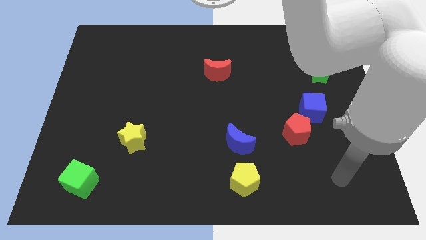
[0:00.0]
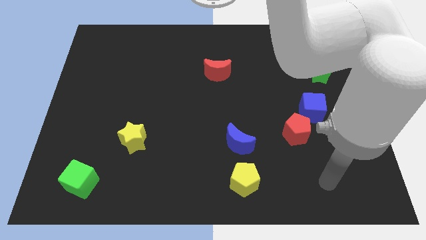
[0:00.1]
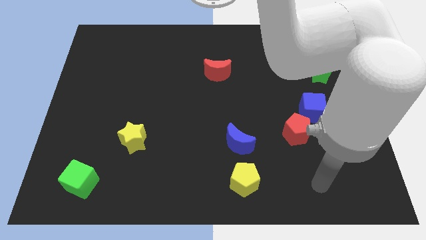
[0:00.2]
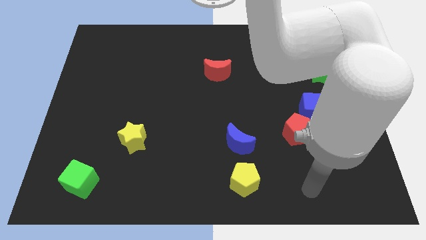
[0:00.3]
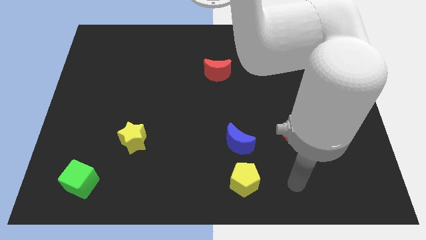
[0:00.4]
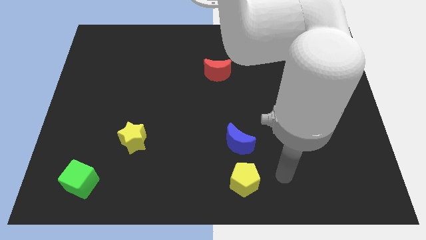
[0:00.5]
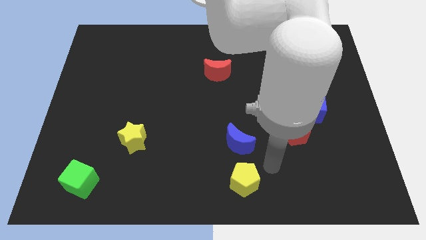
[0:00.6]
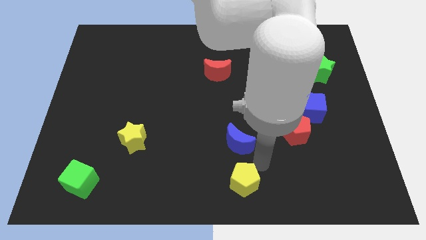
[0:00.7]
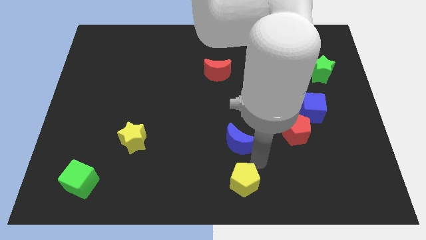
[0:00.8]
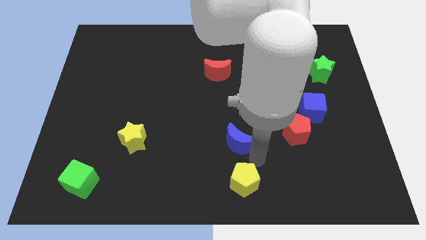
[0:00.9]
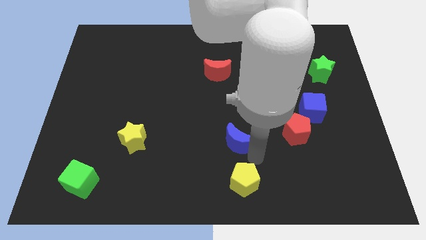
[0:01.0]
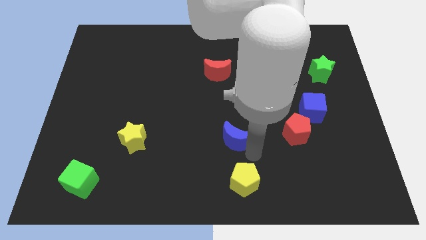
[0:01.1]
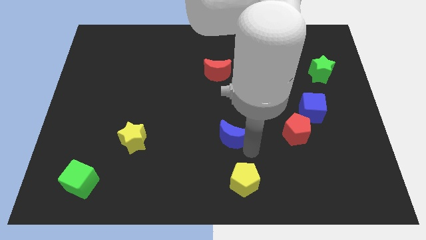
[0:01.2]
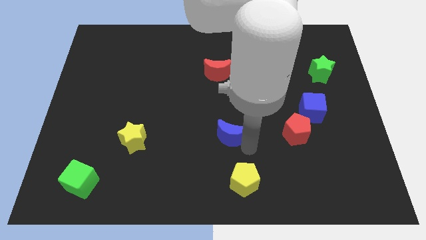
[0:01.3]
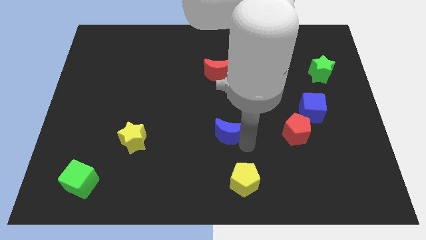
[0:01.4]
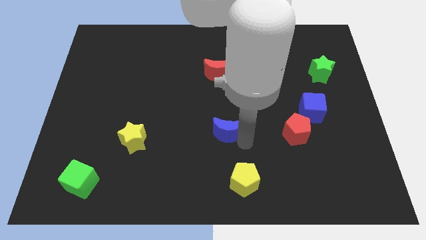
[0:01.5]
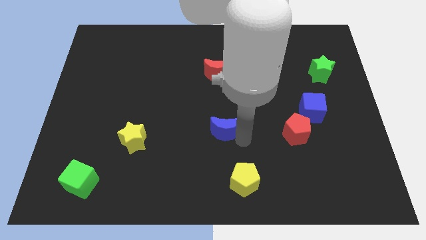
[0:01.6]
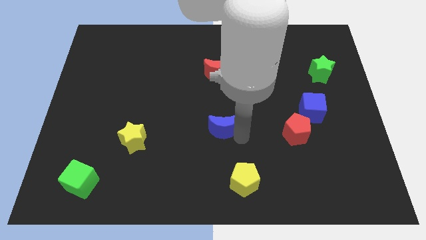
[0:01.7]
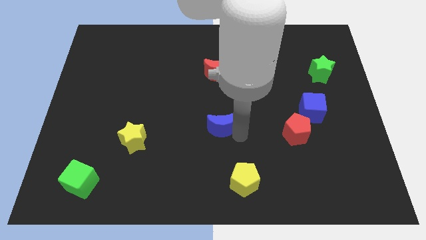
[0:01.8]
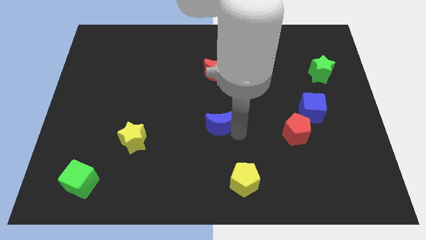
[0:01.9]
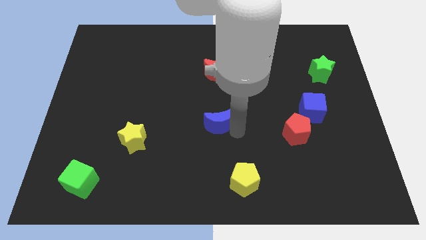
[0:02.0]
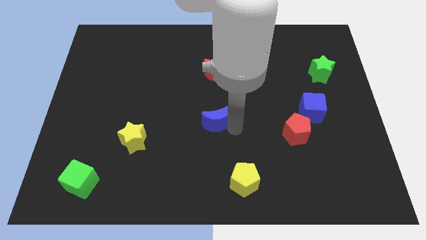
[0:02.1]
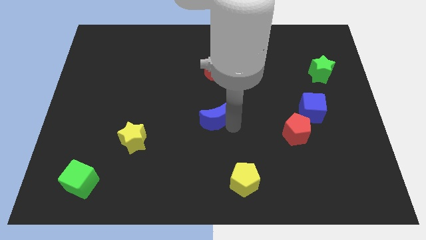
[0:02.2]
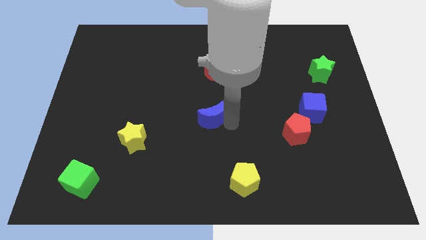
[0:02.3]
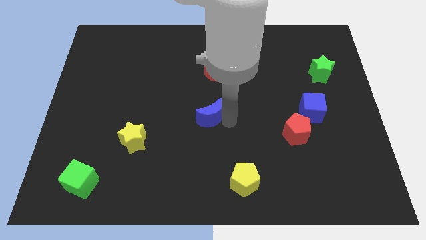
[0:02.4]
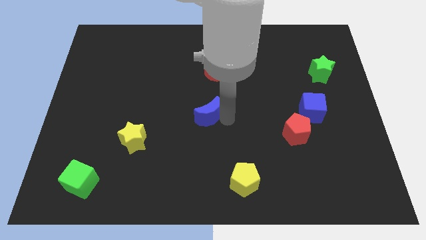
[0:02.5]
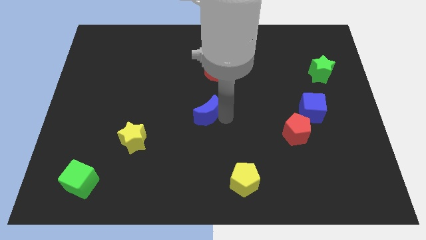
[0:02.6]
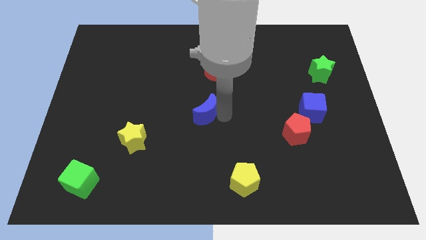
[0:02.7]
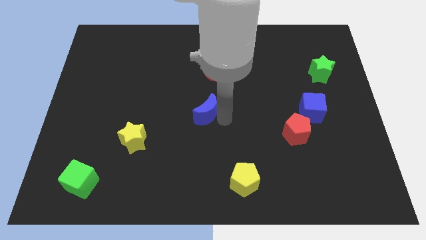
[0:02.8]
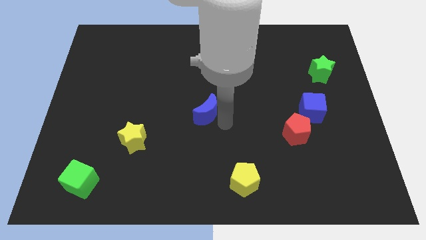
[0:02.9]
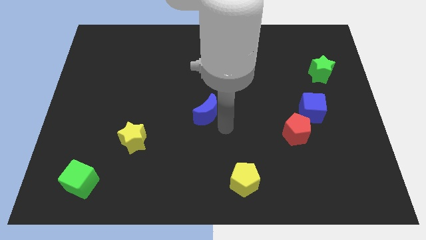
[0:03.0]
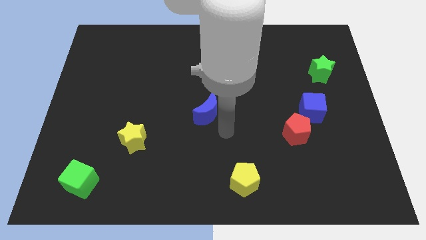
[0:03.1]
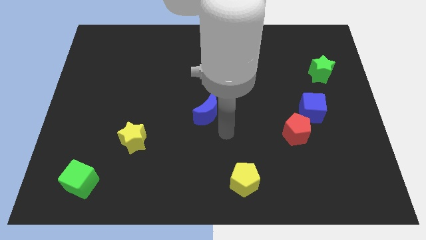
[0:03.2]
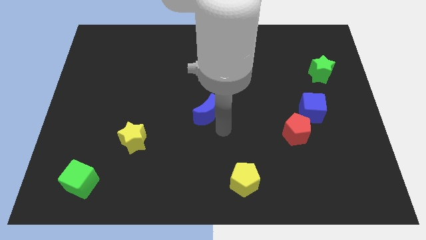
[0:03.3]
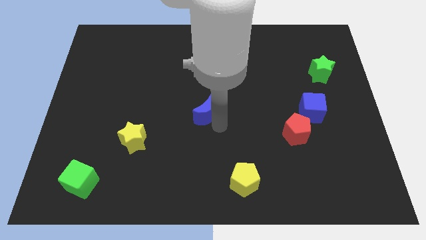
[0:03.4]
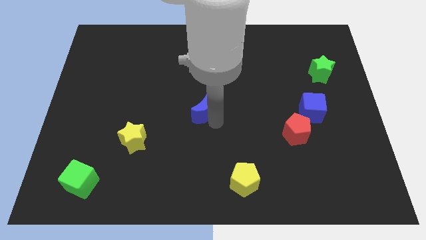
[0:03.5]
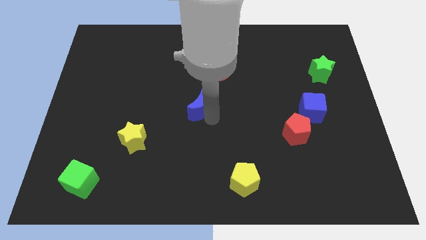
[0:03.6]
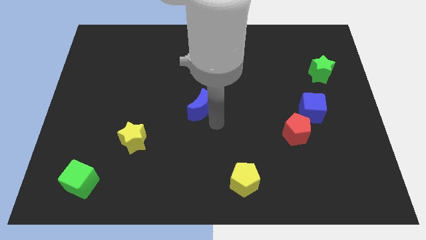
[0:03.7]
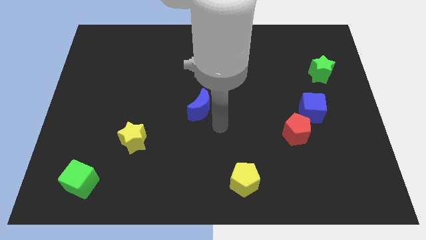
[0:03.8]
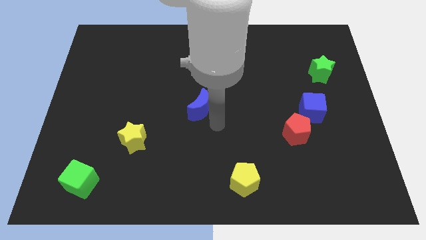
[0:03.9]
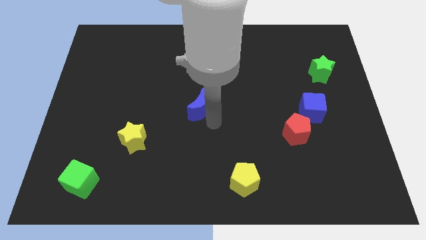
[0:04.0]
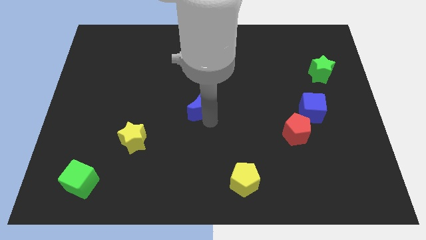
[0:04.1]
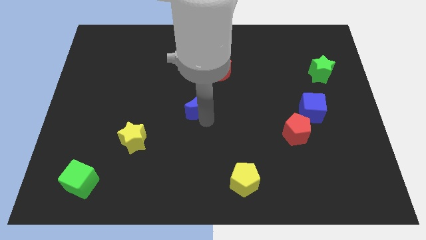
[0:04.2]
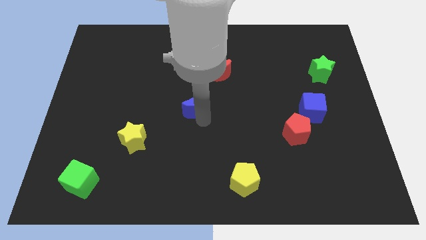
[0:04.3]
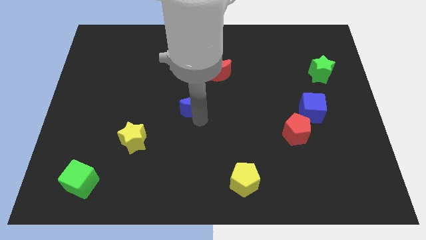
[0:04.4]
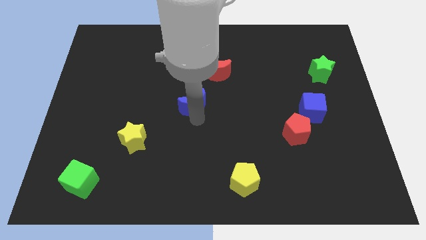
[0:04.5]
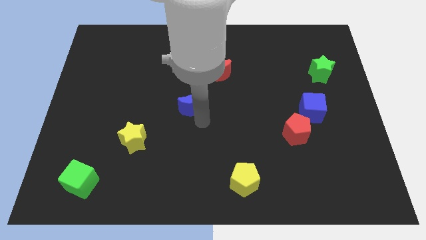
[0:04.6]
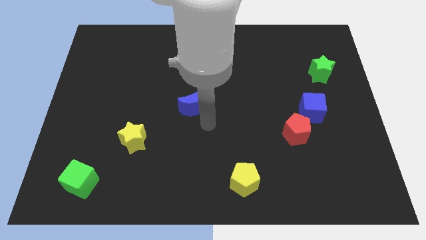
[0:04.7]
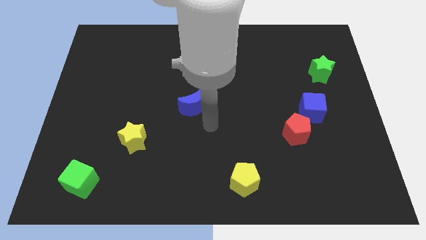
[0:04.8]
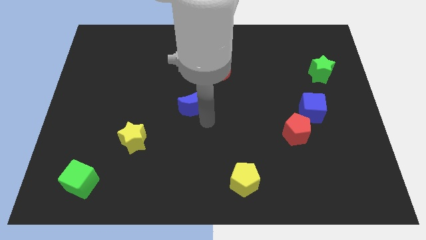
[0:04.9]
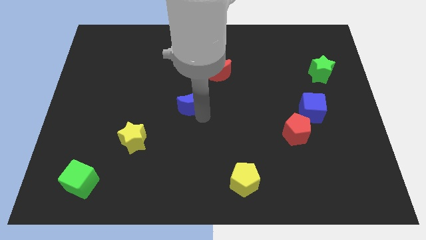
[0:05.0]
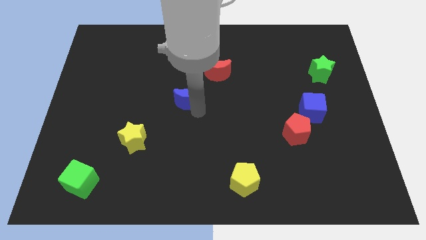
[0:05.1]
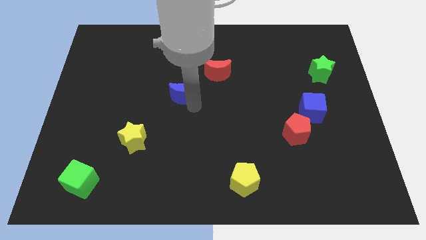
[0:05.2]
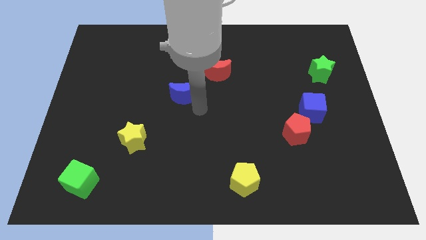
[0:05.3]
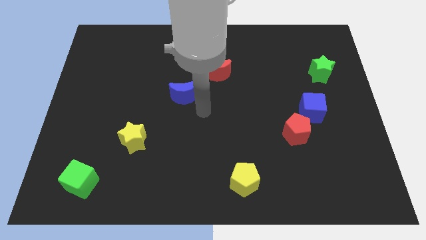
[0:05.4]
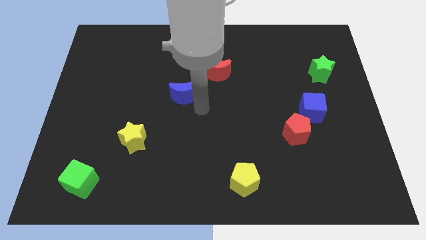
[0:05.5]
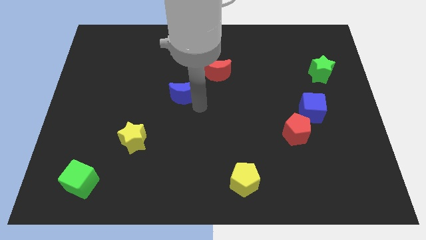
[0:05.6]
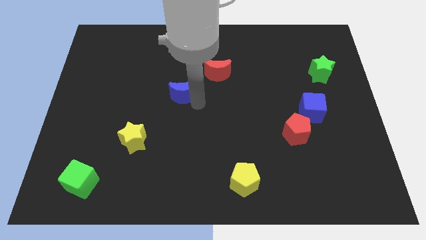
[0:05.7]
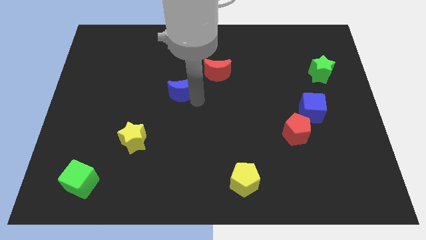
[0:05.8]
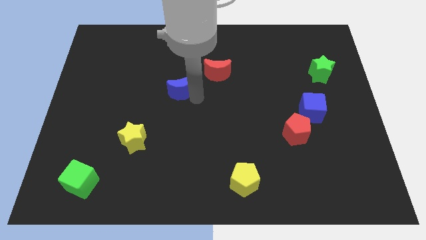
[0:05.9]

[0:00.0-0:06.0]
slide the blue moon up and then to the left

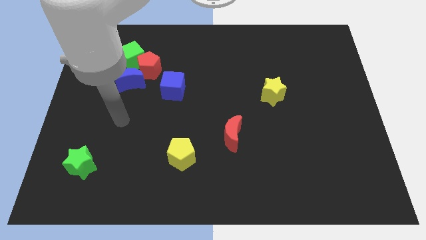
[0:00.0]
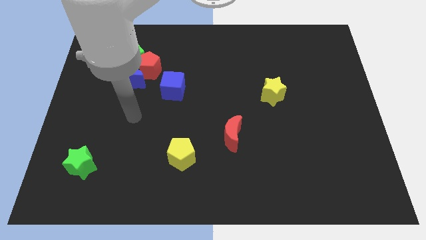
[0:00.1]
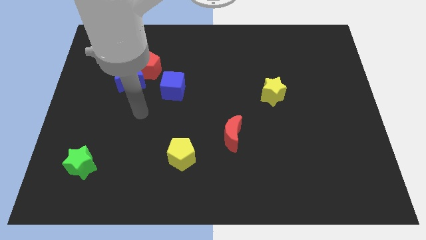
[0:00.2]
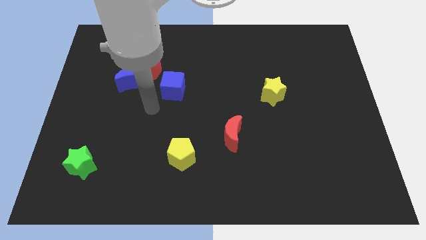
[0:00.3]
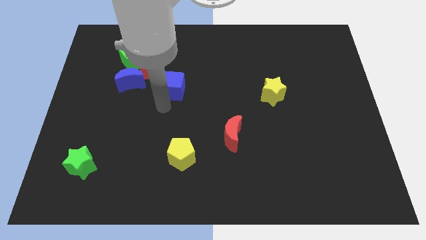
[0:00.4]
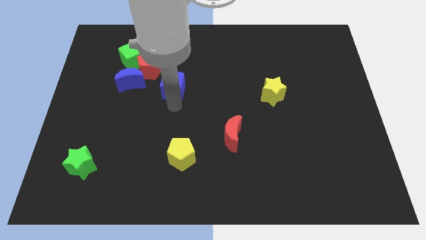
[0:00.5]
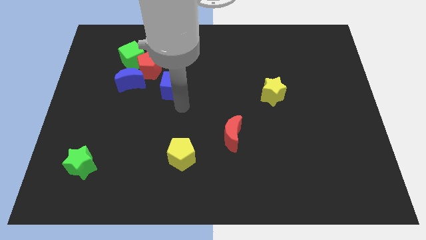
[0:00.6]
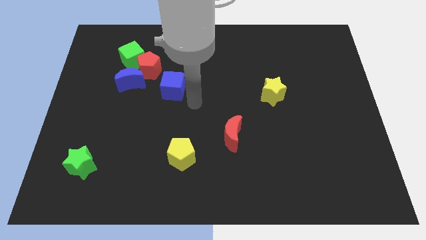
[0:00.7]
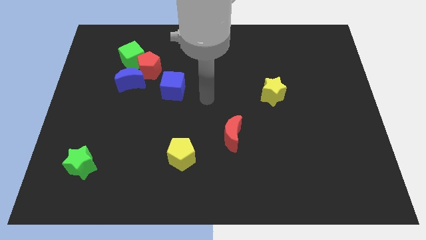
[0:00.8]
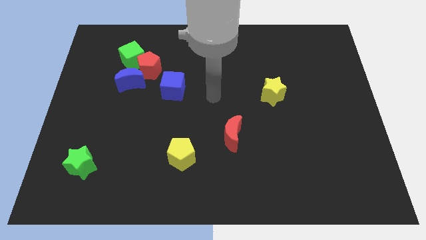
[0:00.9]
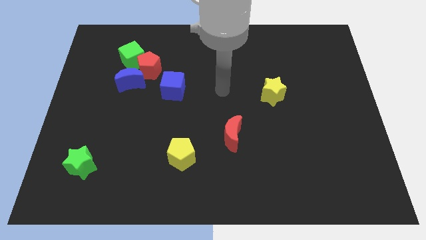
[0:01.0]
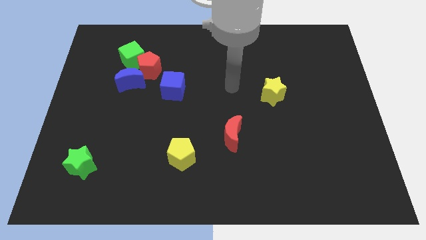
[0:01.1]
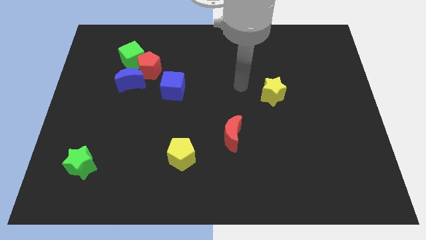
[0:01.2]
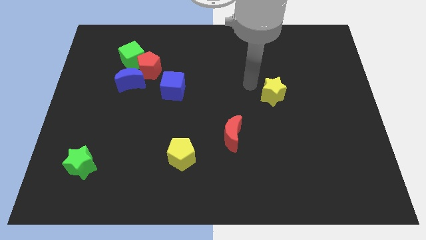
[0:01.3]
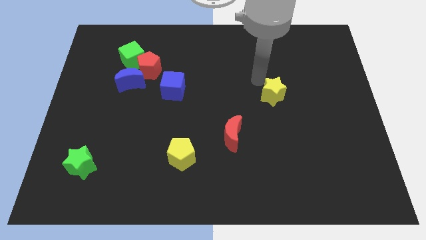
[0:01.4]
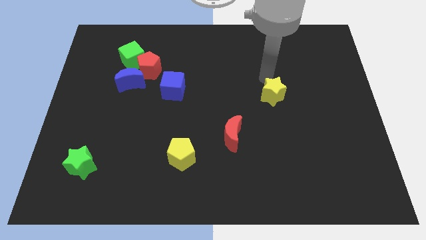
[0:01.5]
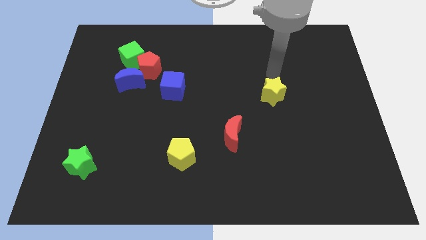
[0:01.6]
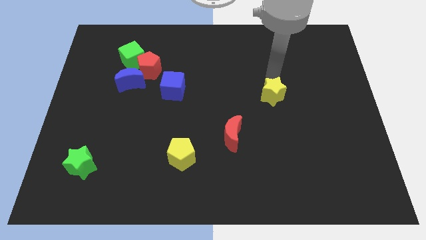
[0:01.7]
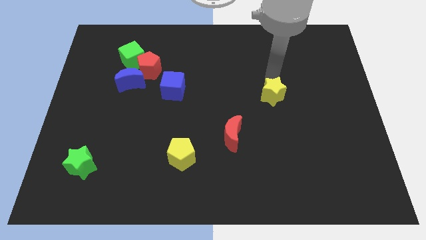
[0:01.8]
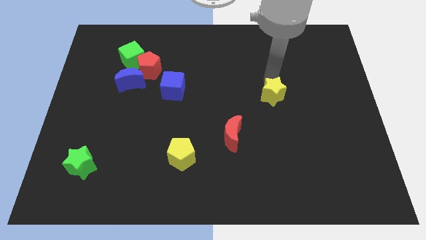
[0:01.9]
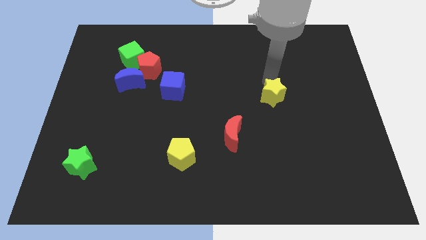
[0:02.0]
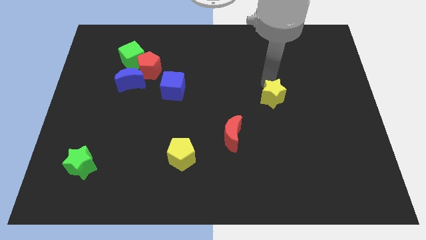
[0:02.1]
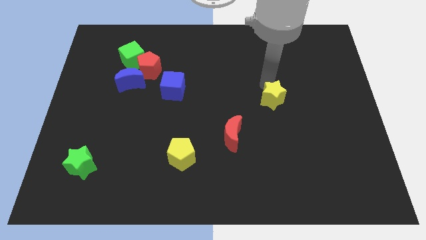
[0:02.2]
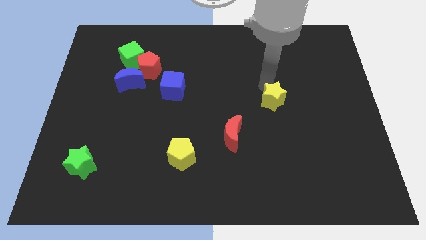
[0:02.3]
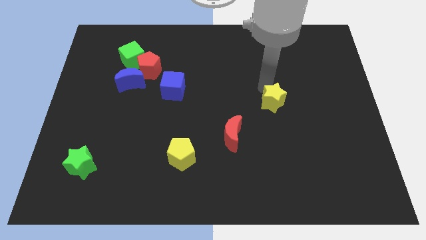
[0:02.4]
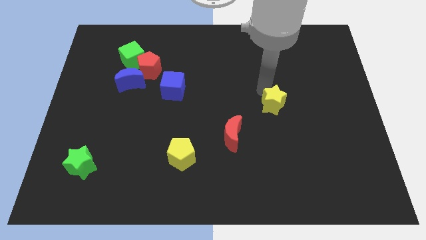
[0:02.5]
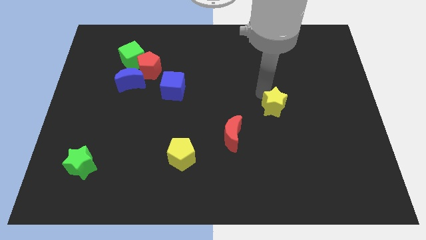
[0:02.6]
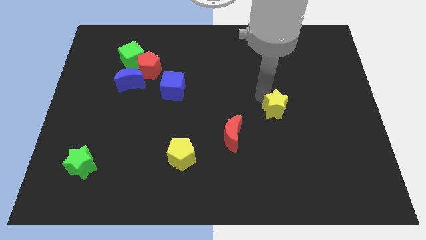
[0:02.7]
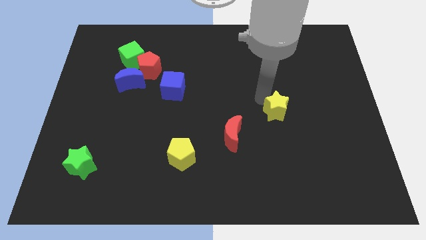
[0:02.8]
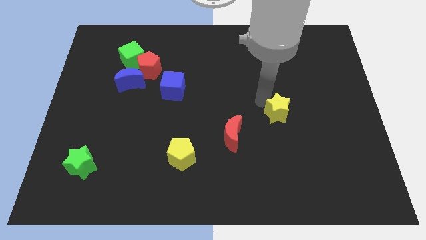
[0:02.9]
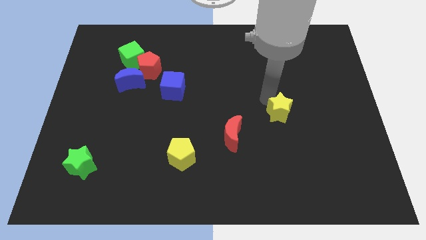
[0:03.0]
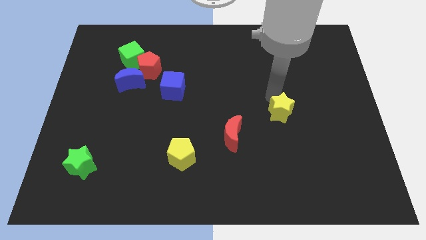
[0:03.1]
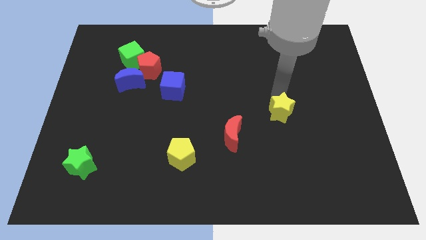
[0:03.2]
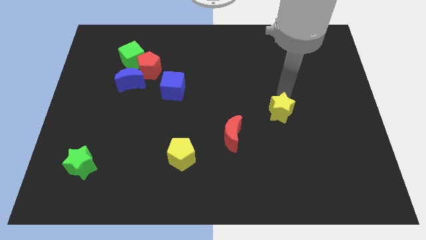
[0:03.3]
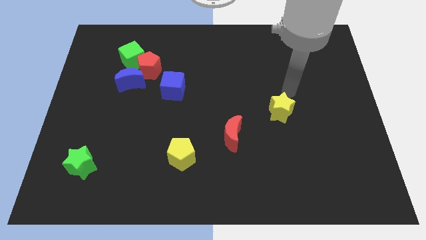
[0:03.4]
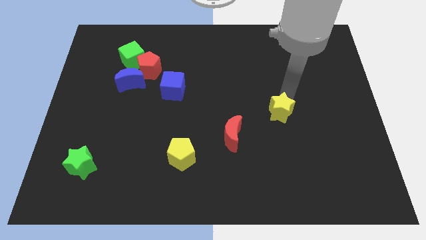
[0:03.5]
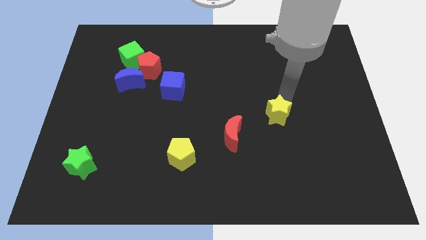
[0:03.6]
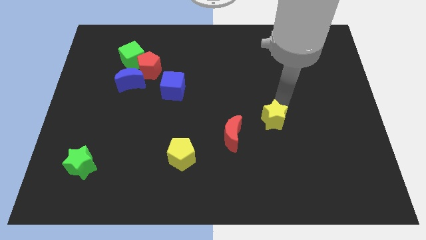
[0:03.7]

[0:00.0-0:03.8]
slide the yellow star a bit downwards
